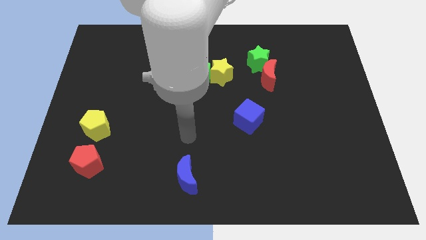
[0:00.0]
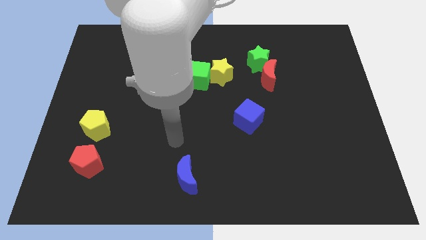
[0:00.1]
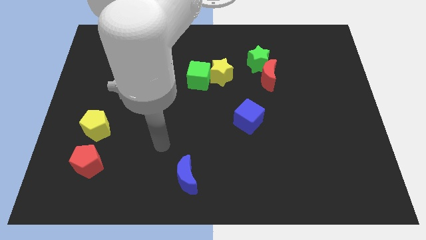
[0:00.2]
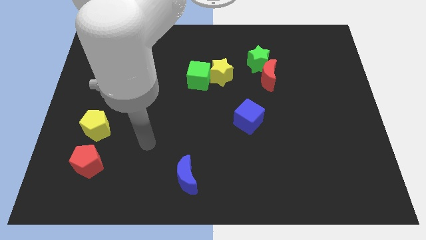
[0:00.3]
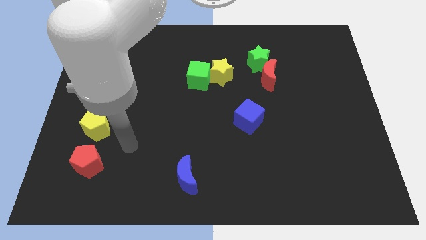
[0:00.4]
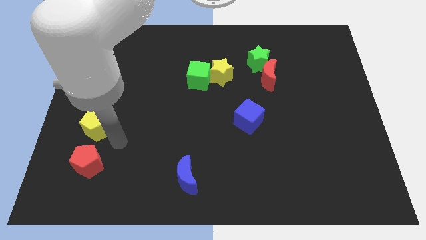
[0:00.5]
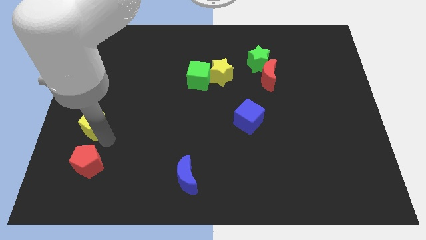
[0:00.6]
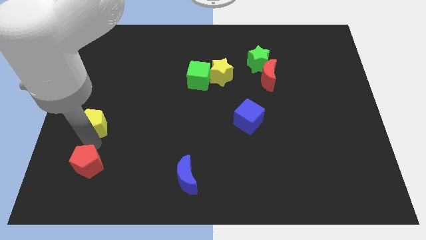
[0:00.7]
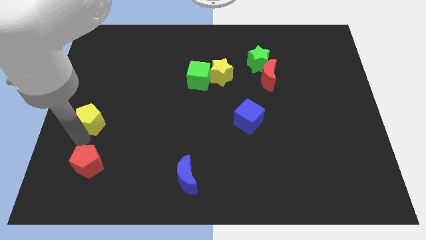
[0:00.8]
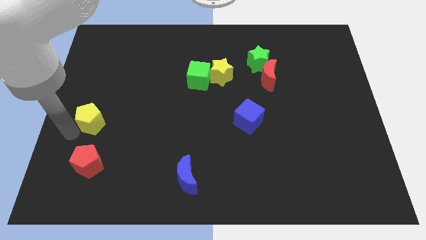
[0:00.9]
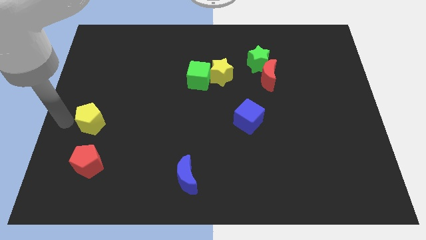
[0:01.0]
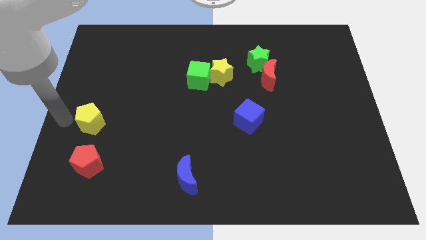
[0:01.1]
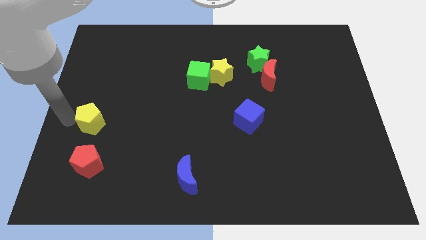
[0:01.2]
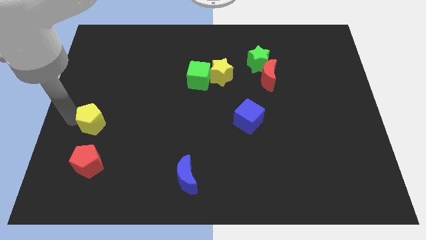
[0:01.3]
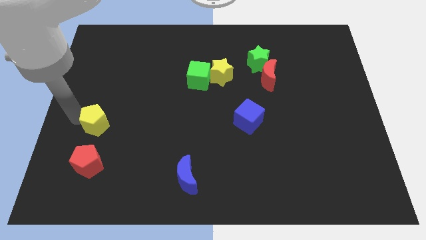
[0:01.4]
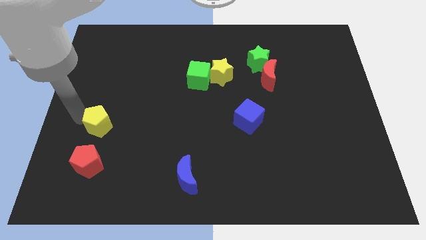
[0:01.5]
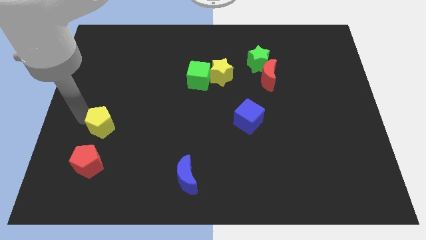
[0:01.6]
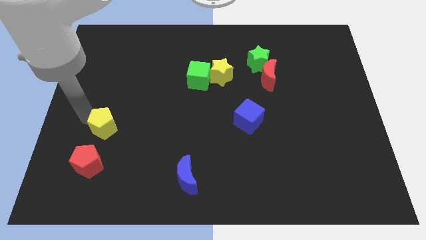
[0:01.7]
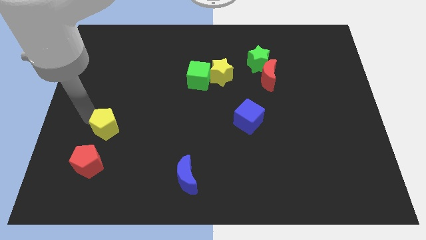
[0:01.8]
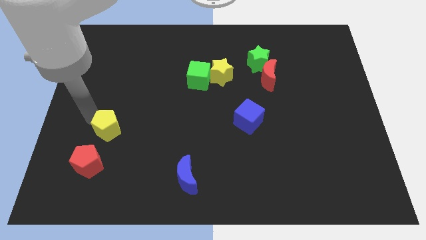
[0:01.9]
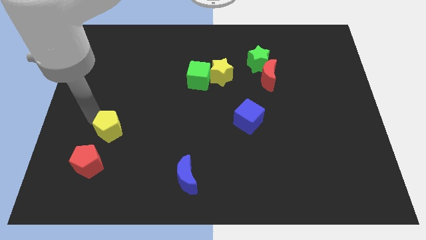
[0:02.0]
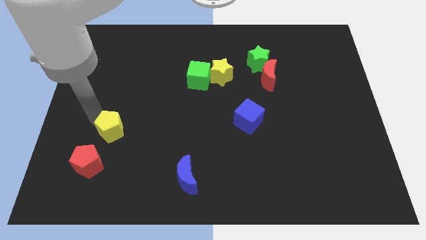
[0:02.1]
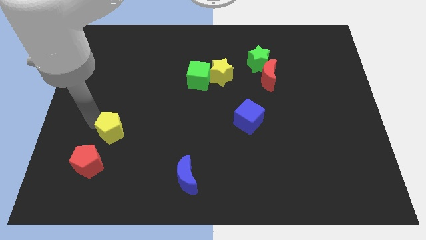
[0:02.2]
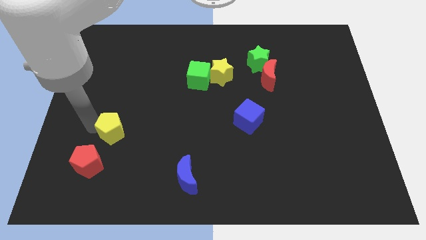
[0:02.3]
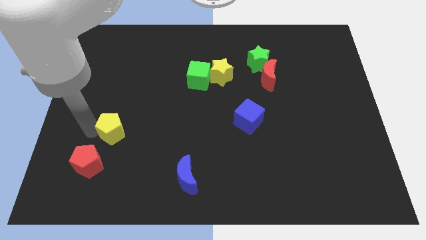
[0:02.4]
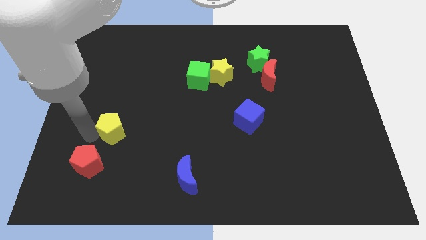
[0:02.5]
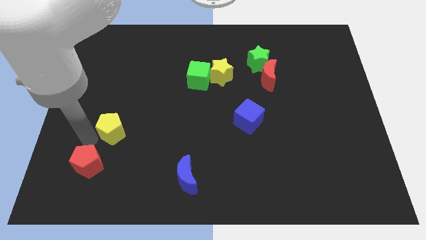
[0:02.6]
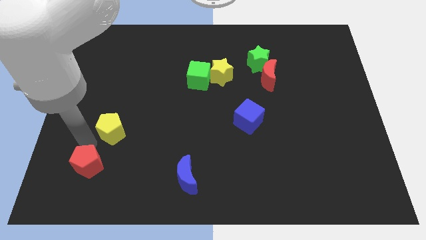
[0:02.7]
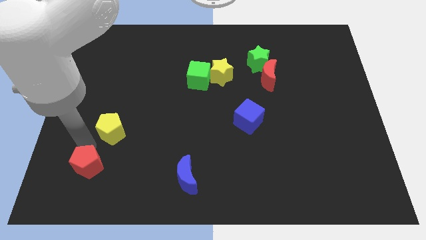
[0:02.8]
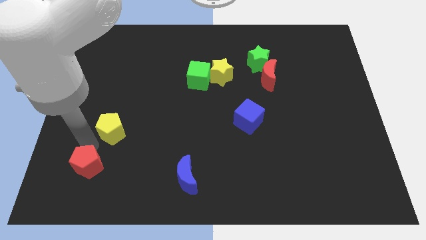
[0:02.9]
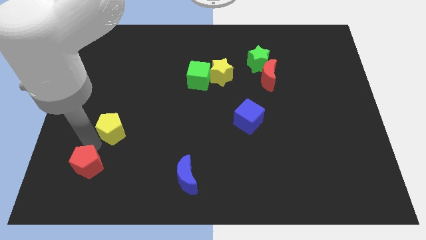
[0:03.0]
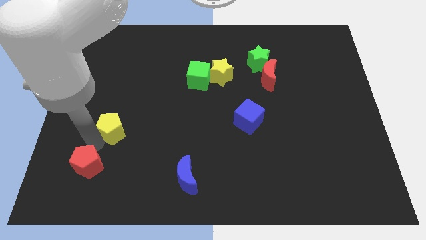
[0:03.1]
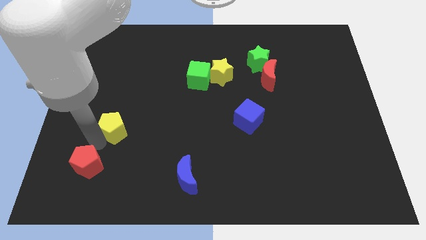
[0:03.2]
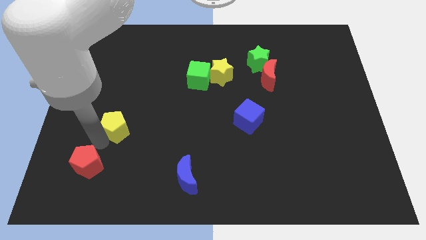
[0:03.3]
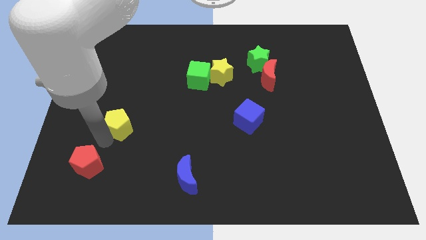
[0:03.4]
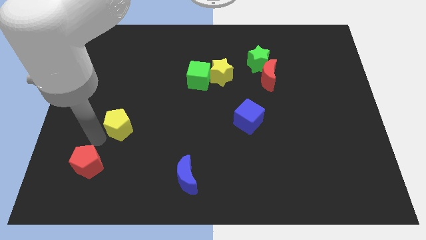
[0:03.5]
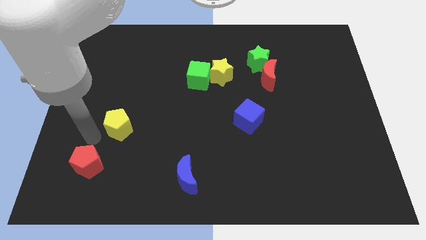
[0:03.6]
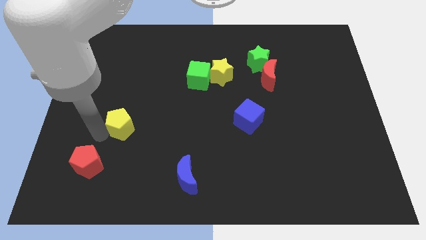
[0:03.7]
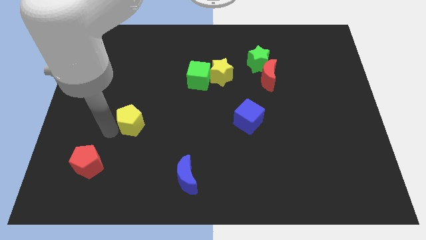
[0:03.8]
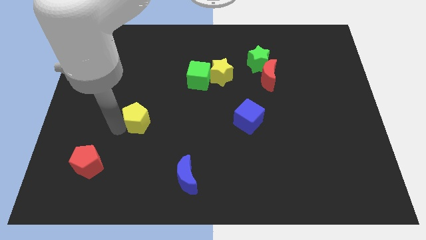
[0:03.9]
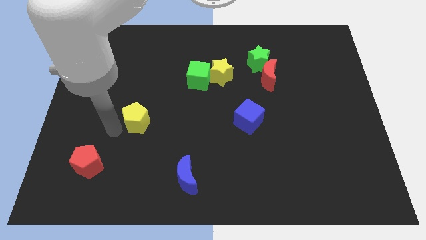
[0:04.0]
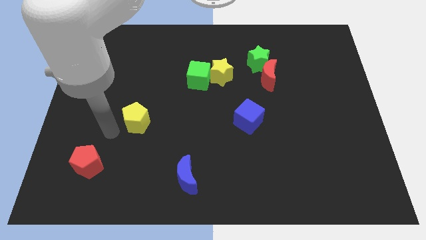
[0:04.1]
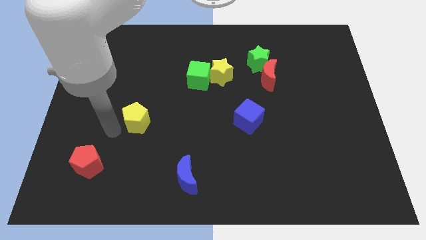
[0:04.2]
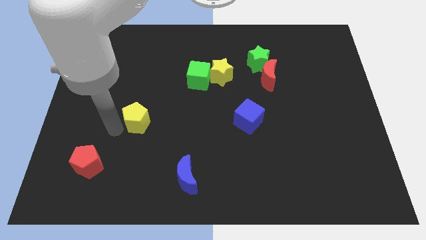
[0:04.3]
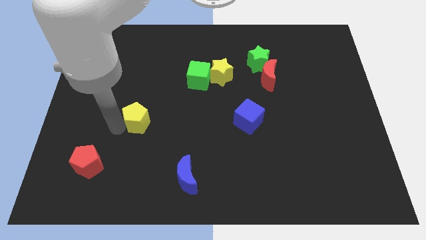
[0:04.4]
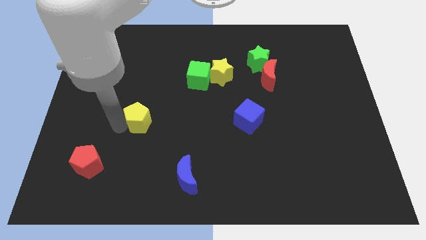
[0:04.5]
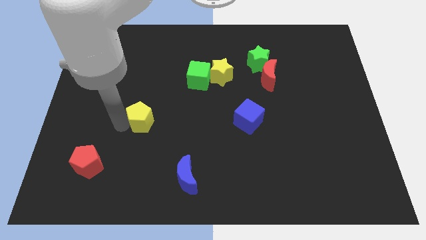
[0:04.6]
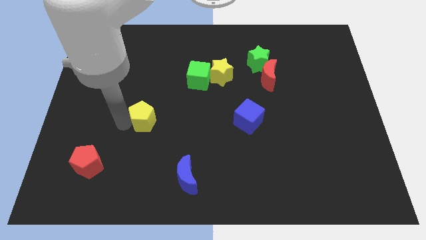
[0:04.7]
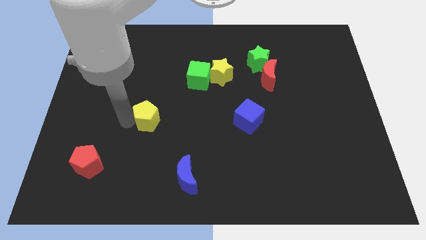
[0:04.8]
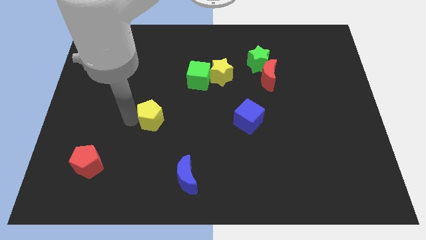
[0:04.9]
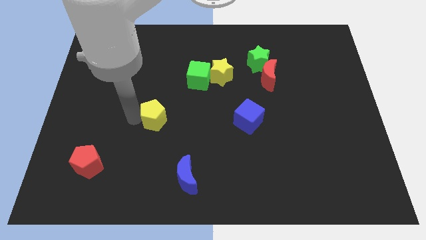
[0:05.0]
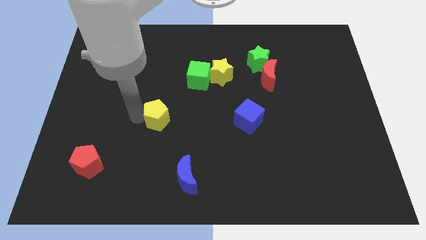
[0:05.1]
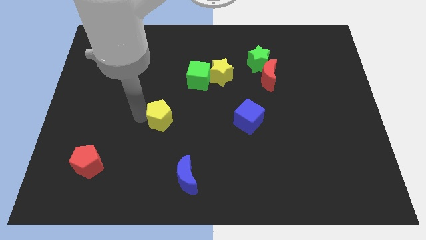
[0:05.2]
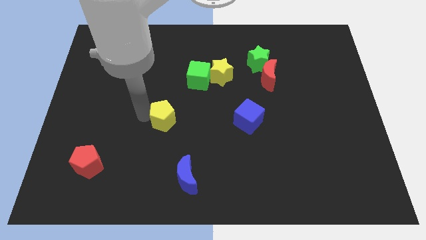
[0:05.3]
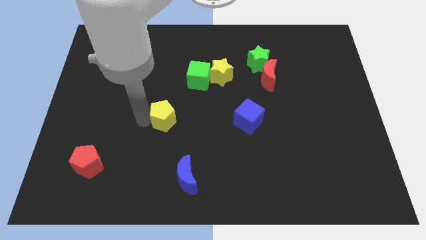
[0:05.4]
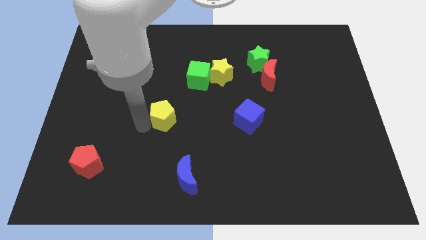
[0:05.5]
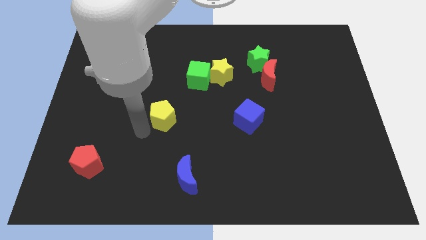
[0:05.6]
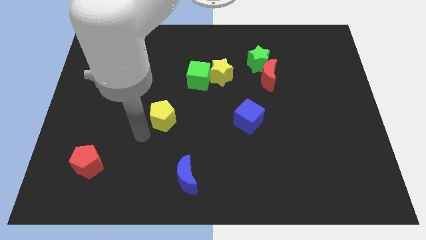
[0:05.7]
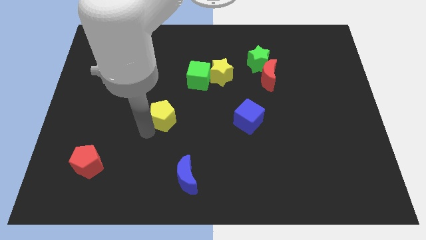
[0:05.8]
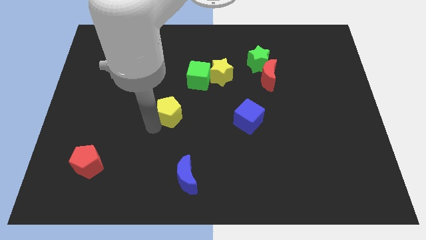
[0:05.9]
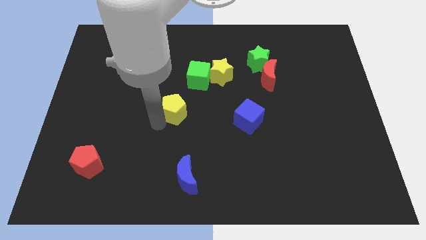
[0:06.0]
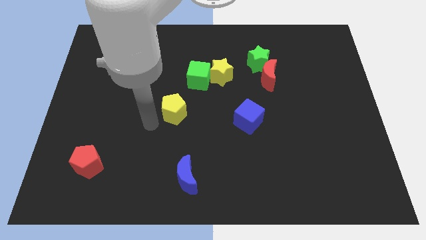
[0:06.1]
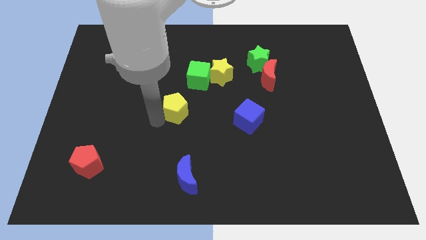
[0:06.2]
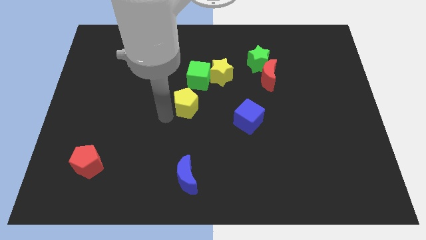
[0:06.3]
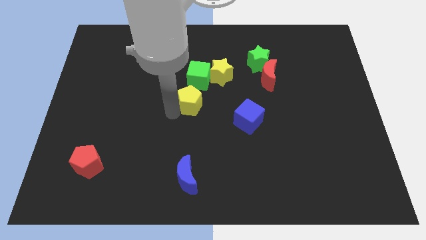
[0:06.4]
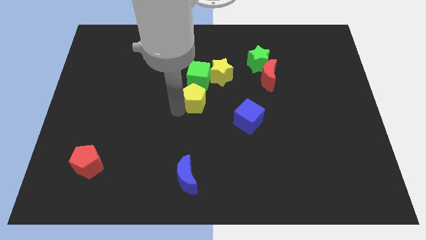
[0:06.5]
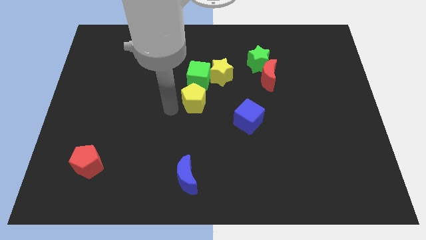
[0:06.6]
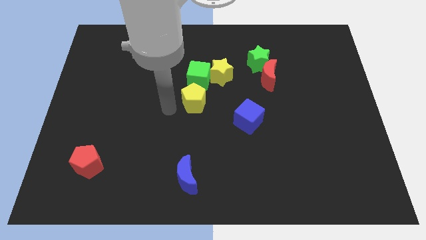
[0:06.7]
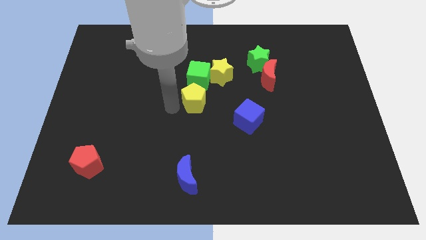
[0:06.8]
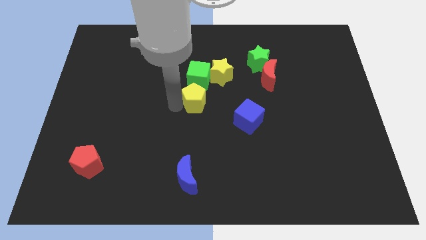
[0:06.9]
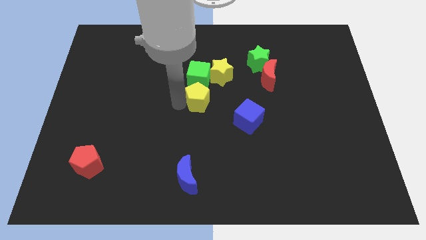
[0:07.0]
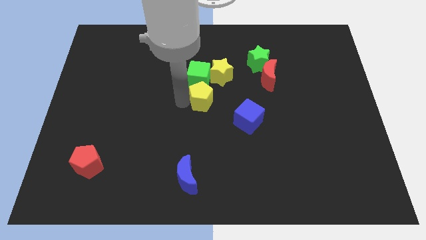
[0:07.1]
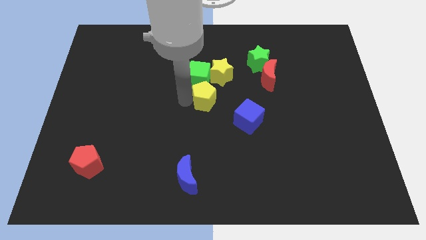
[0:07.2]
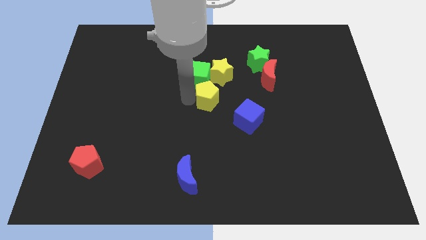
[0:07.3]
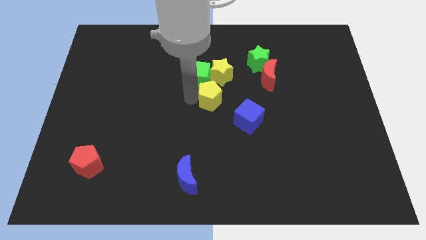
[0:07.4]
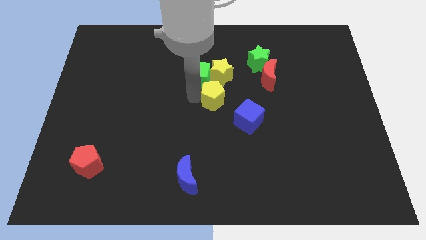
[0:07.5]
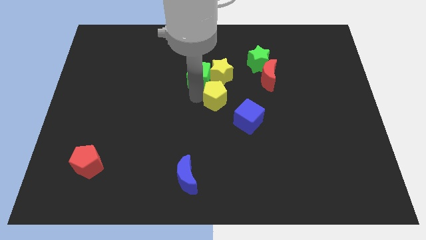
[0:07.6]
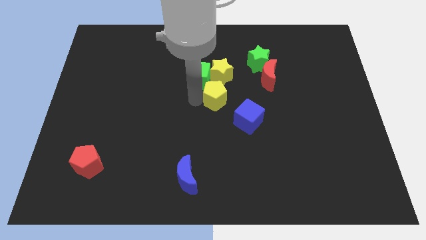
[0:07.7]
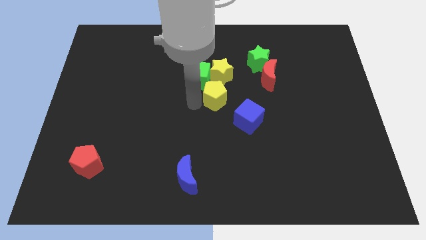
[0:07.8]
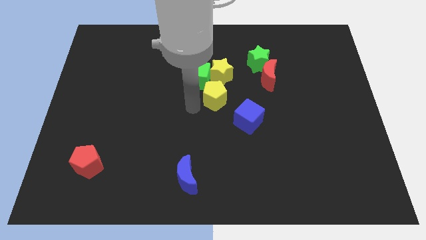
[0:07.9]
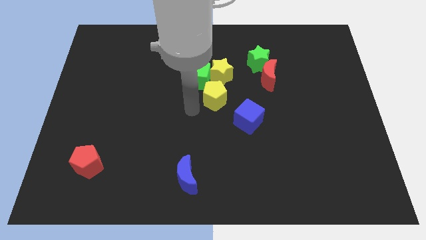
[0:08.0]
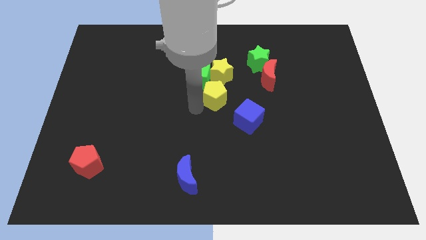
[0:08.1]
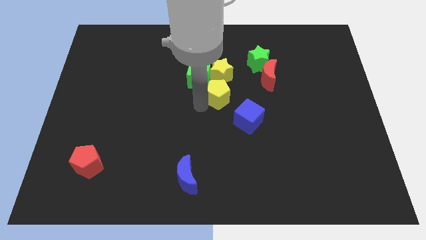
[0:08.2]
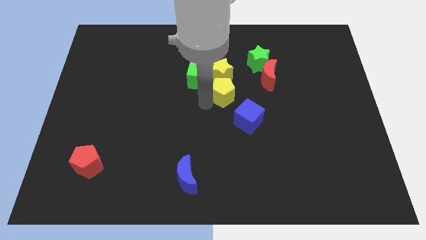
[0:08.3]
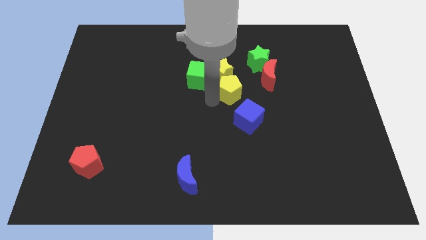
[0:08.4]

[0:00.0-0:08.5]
put the yellow pentagon to the top side of the blue cube
